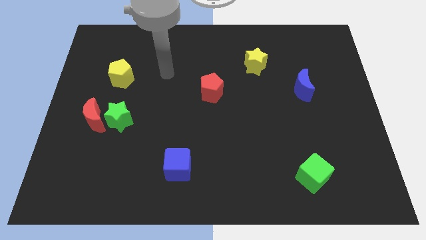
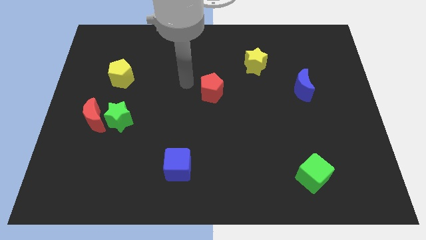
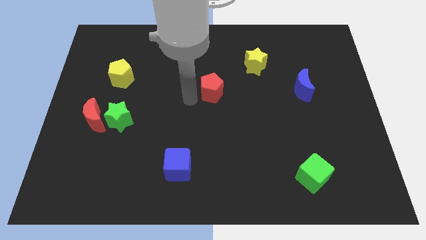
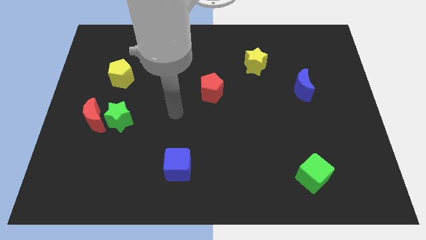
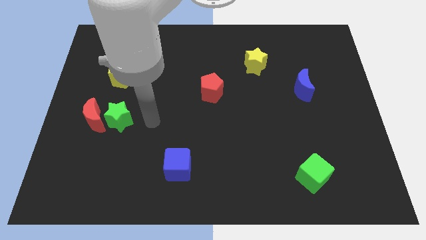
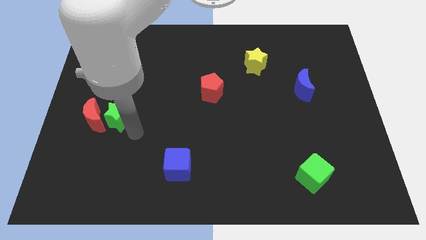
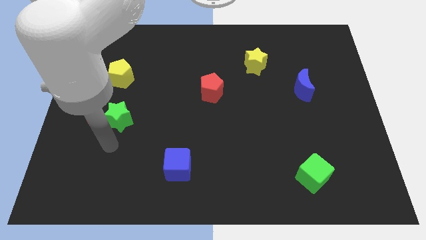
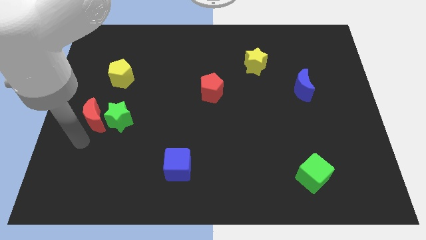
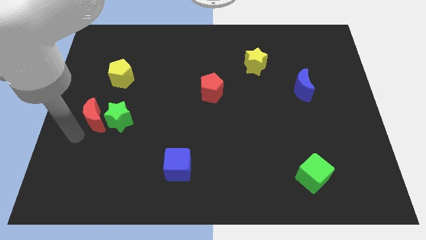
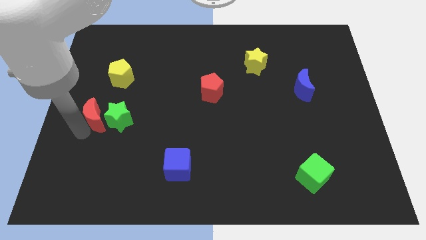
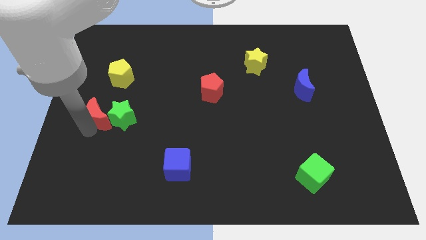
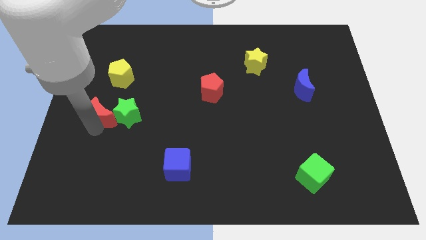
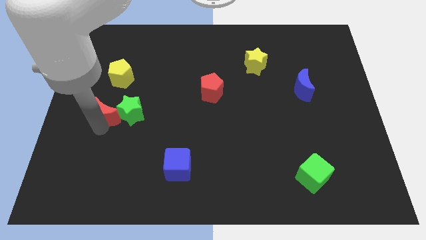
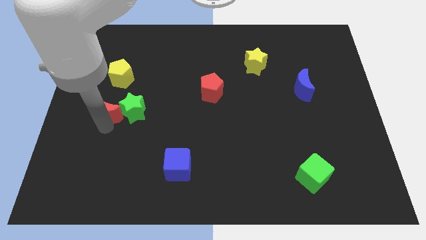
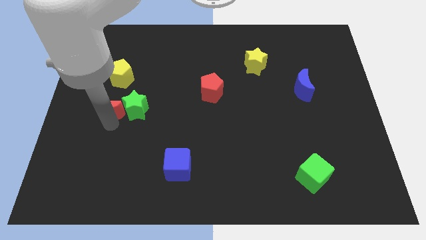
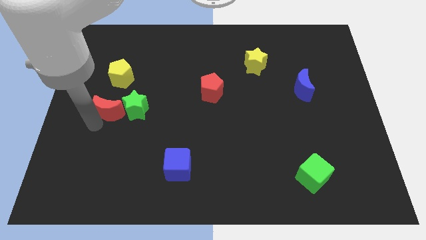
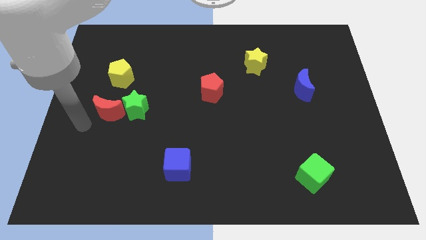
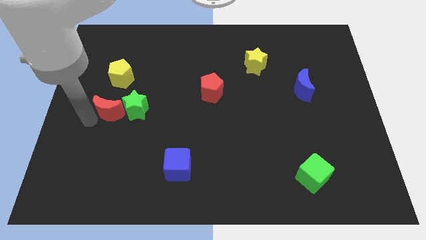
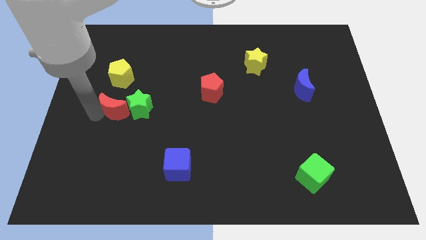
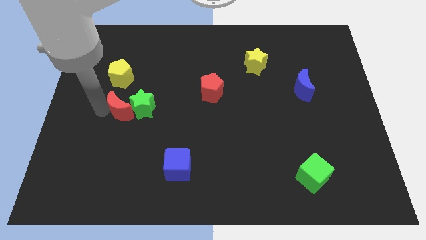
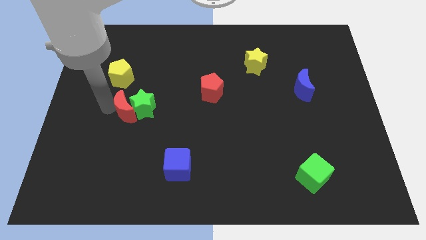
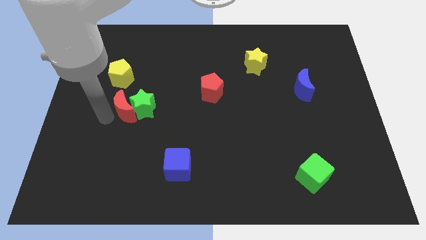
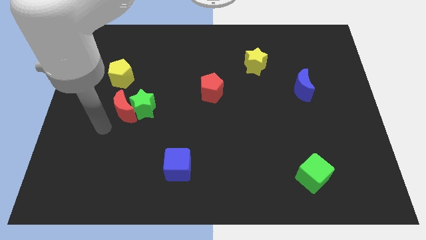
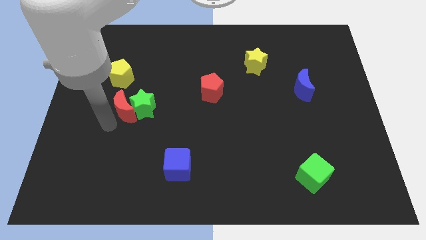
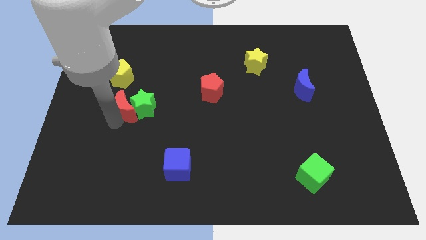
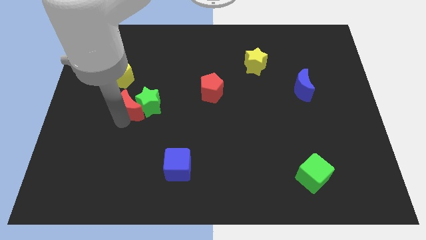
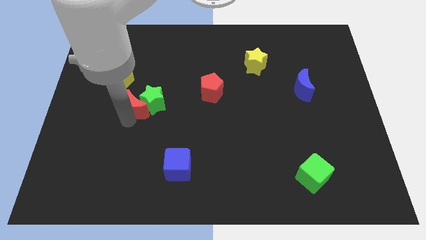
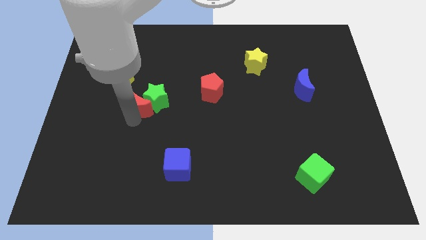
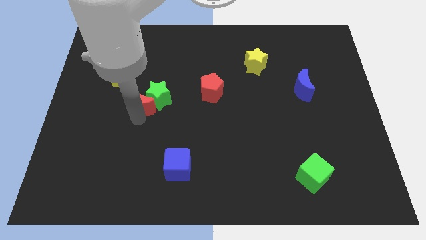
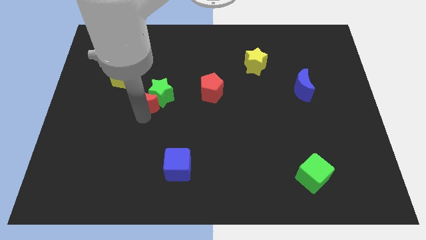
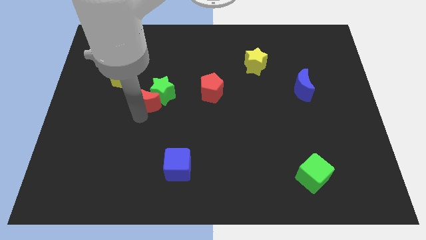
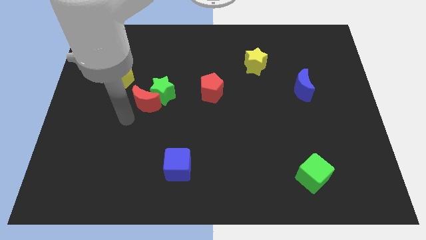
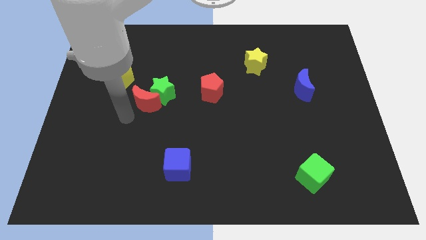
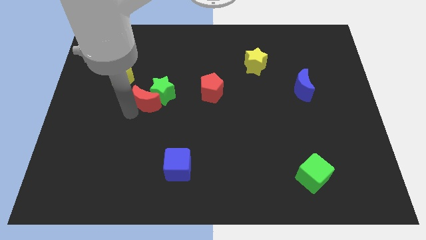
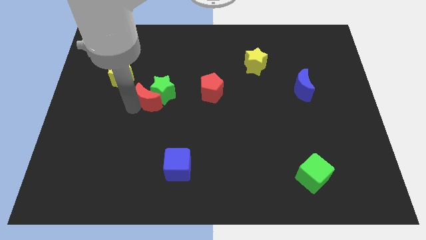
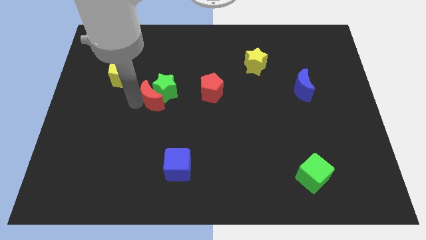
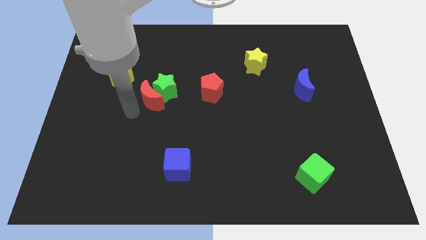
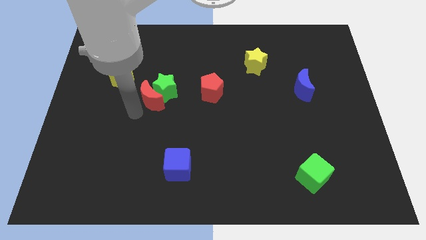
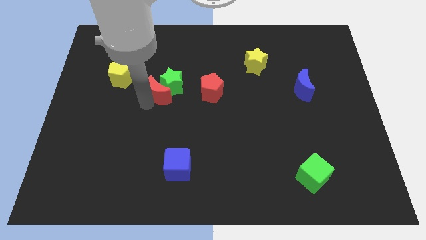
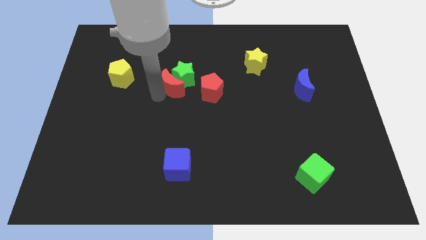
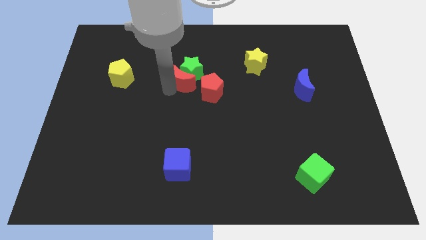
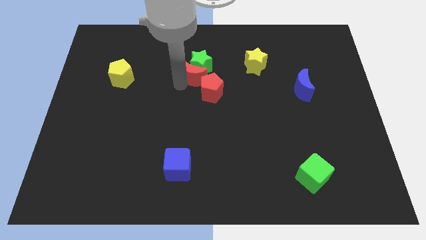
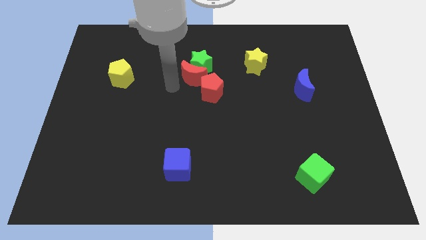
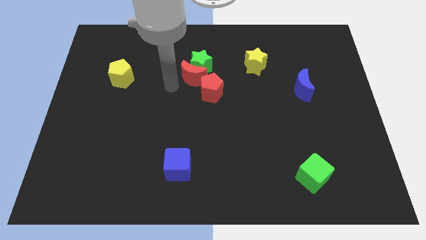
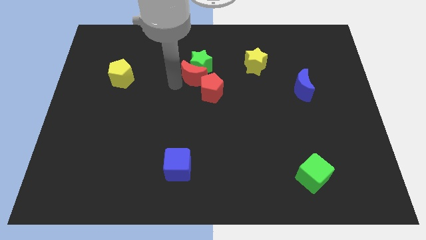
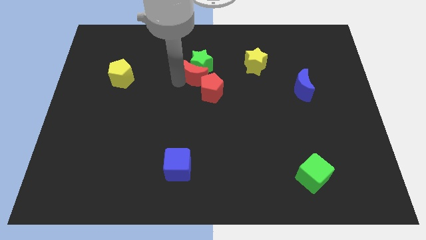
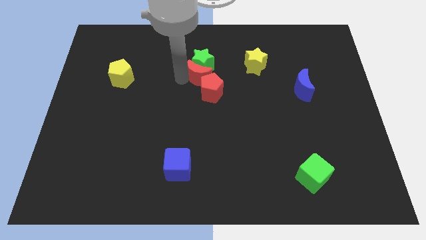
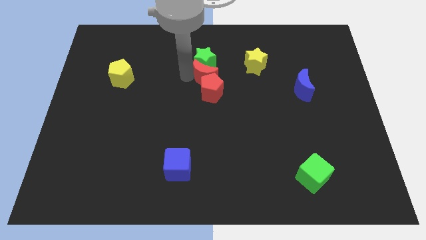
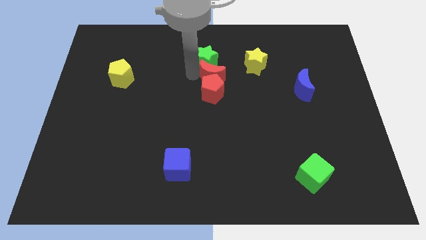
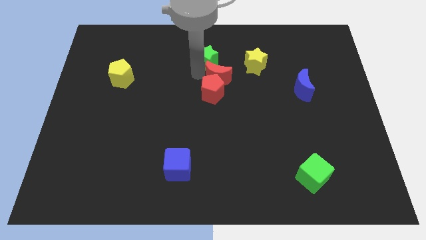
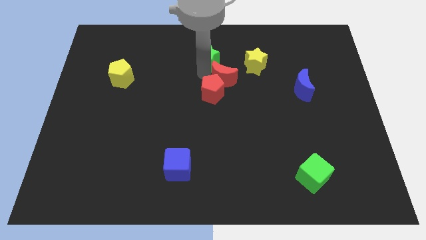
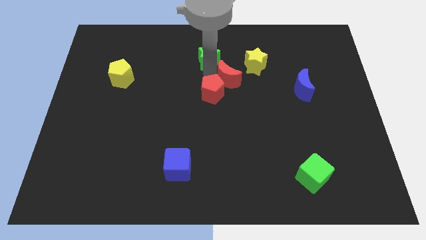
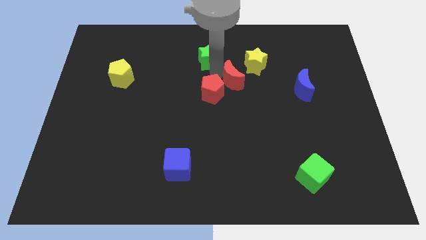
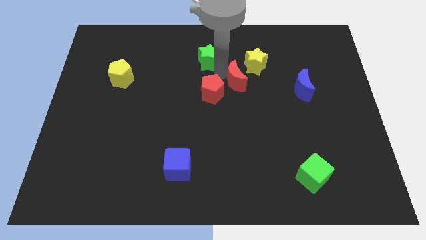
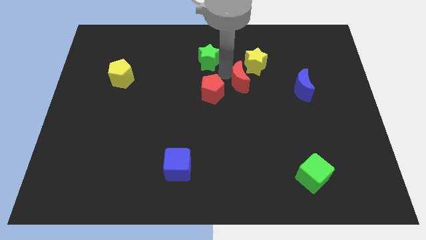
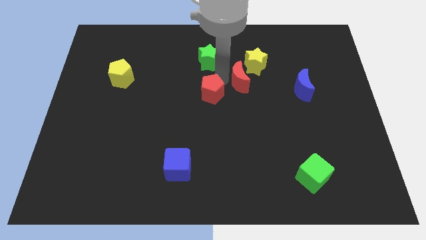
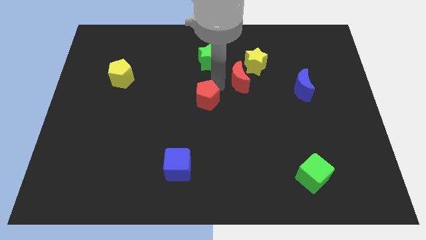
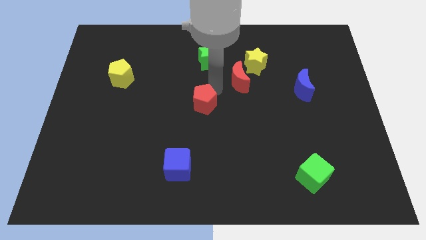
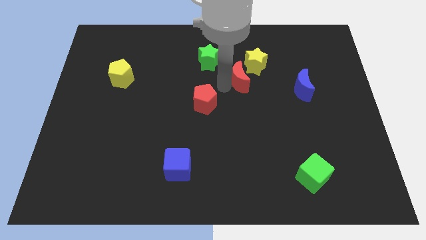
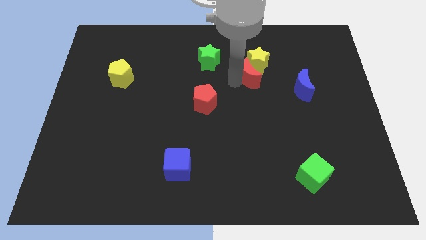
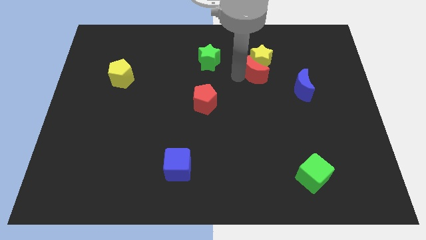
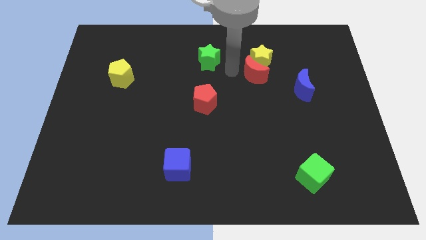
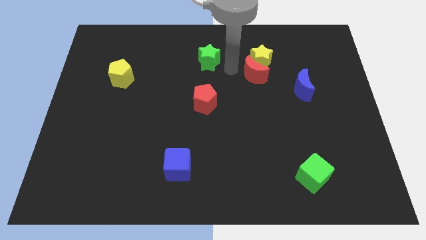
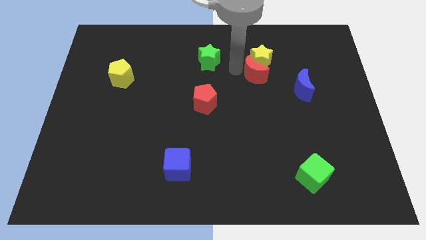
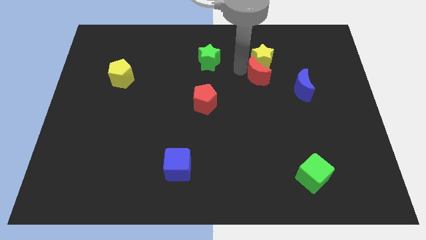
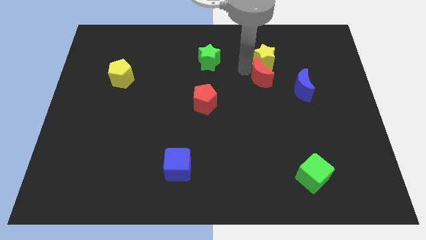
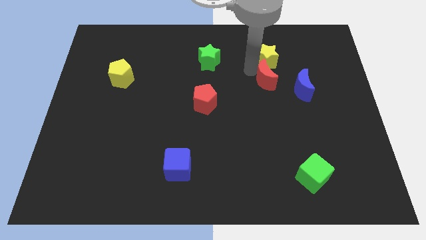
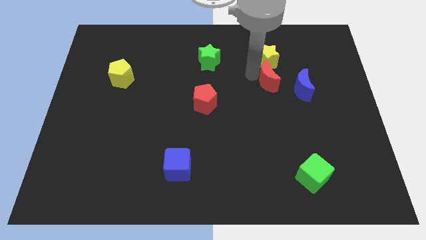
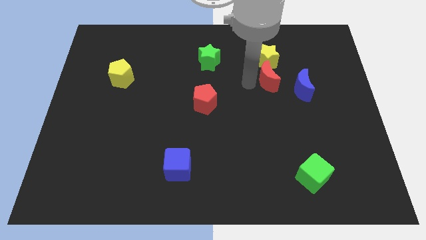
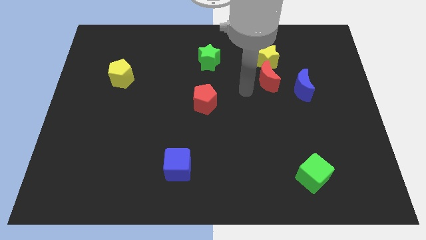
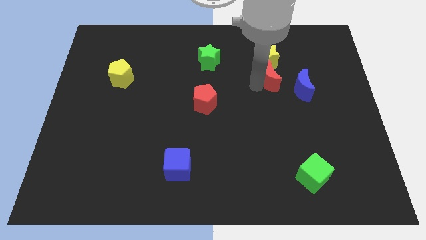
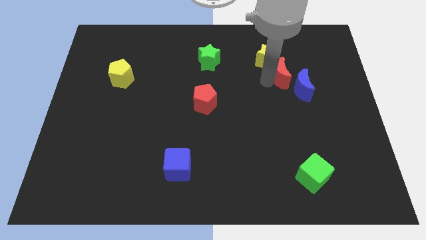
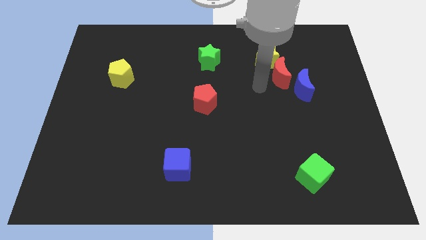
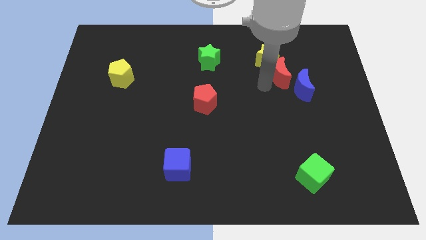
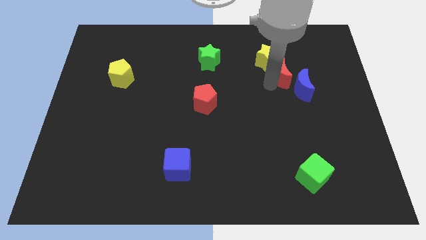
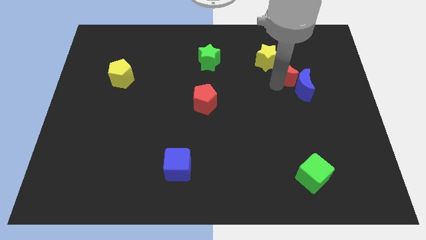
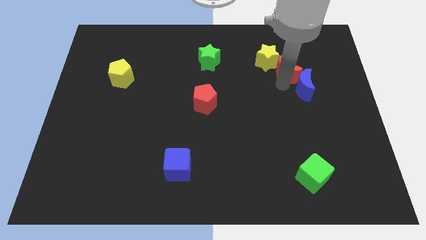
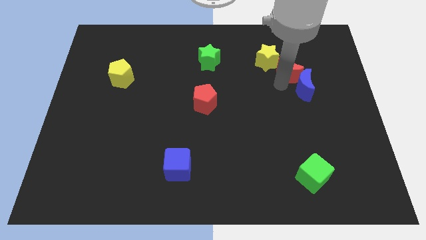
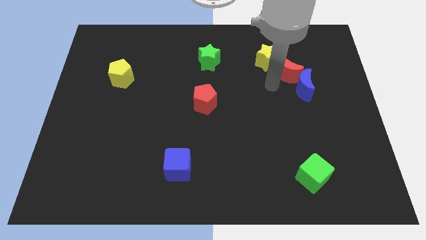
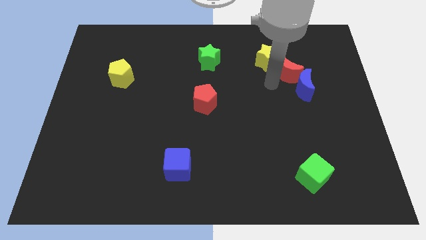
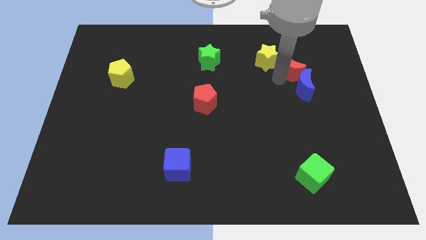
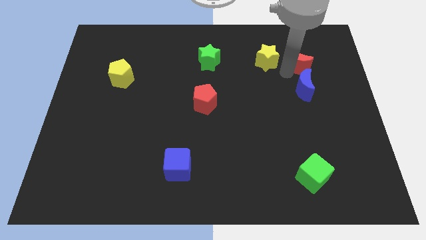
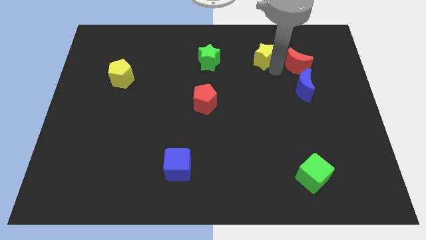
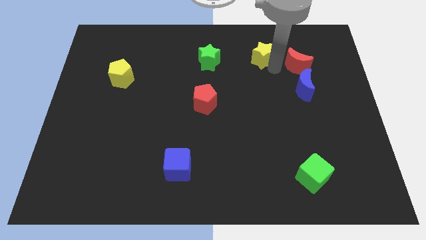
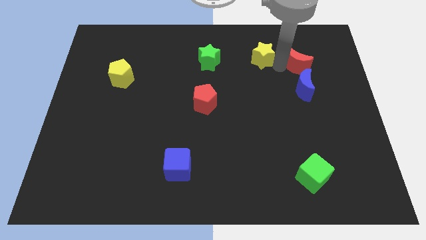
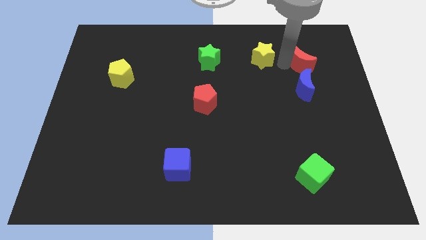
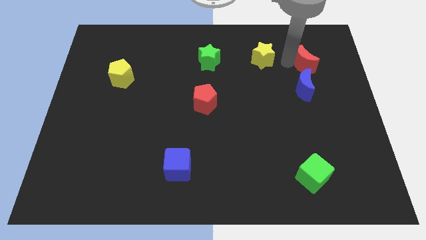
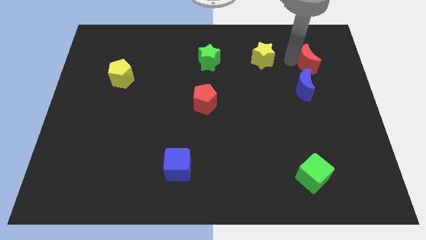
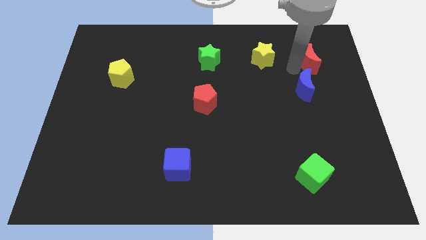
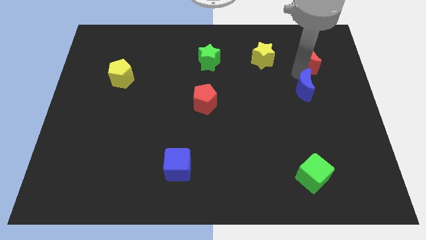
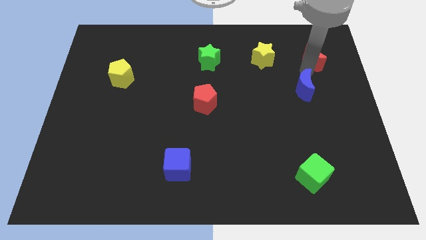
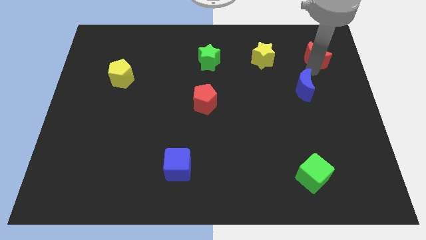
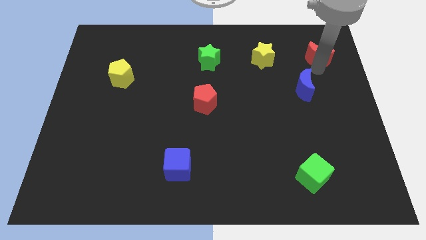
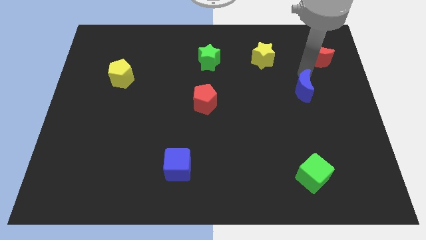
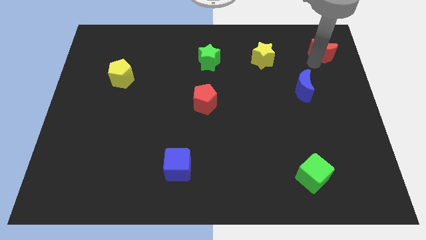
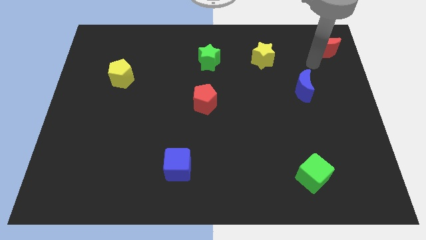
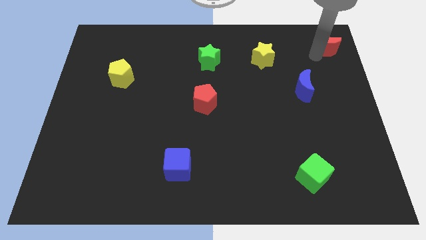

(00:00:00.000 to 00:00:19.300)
put the red moon to the top right corner
